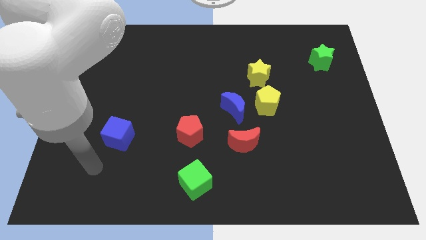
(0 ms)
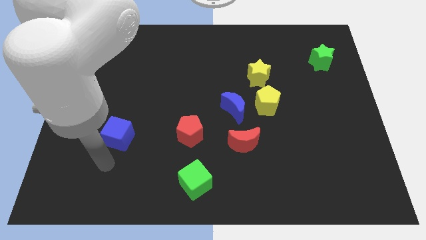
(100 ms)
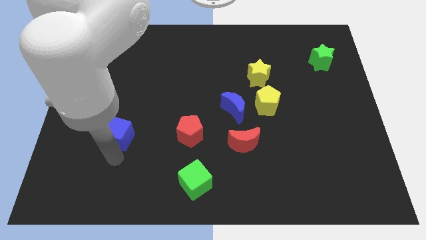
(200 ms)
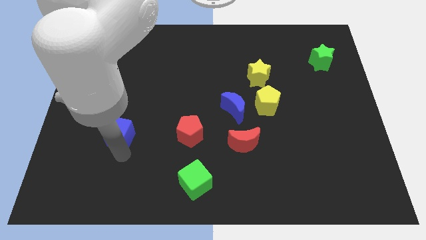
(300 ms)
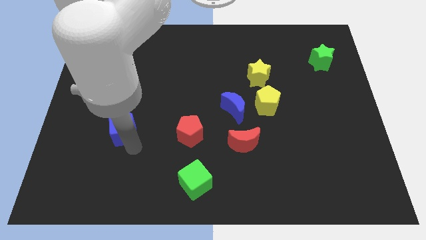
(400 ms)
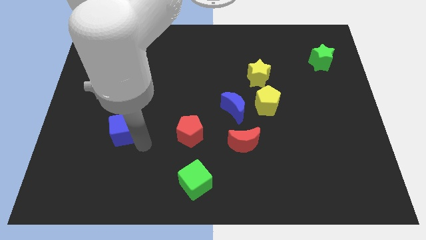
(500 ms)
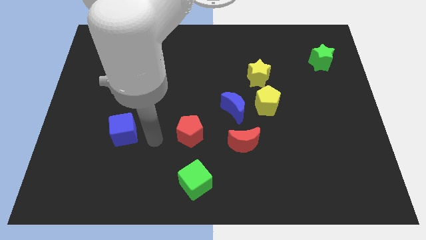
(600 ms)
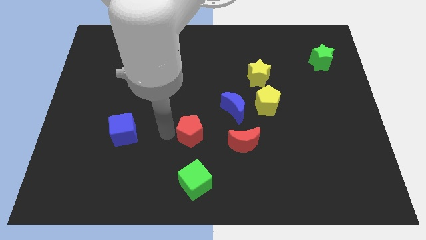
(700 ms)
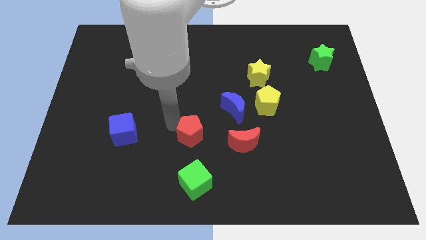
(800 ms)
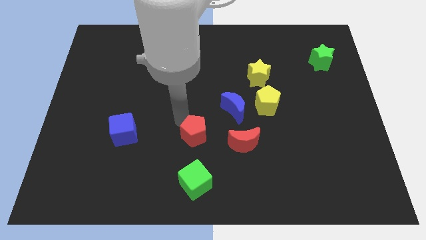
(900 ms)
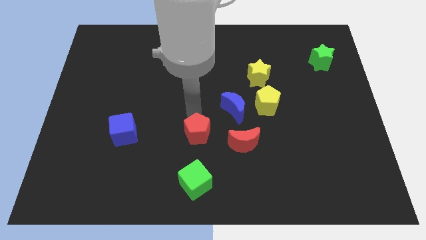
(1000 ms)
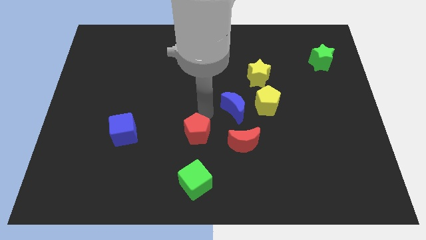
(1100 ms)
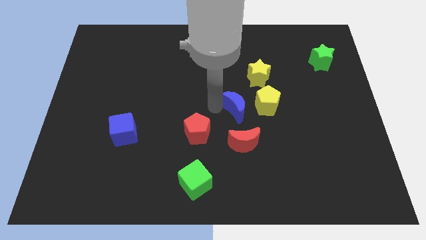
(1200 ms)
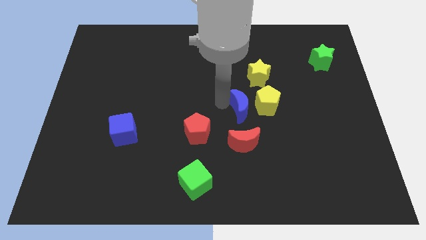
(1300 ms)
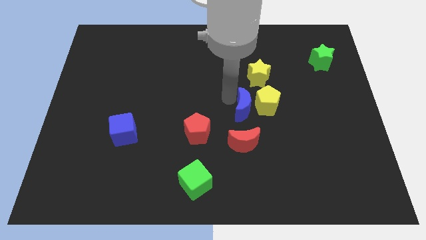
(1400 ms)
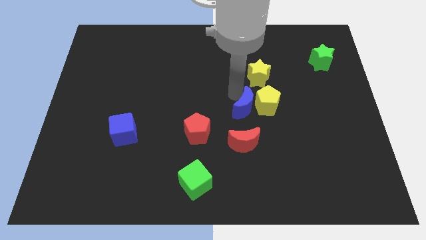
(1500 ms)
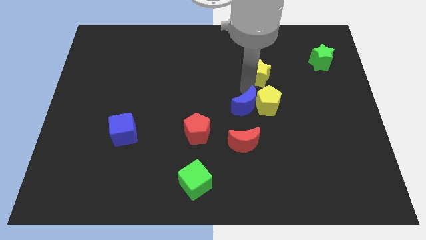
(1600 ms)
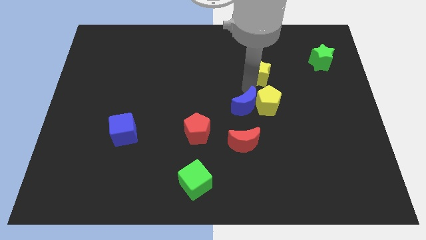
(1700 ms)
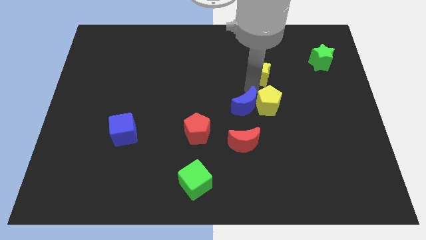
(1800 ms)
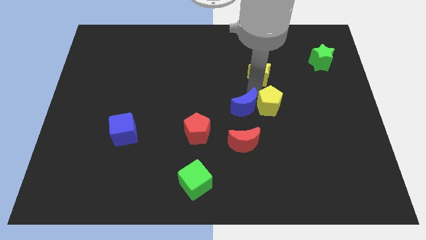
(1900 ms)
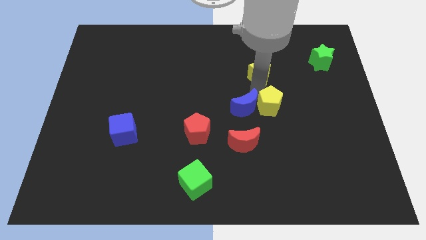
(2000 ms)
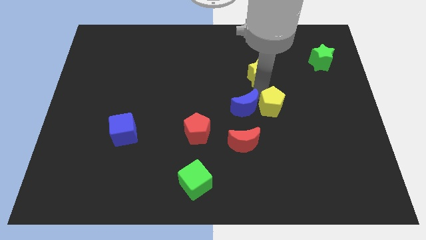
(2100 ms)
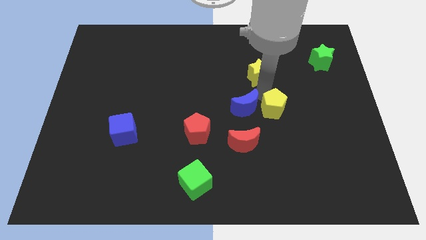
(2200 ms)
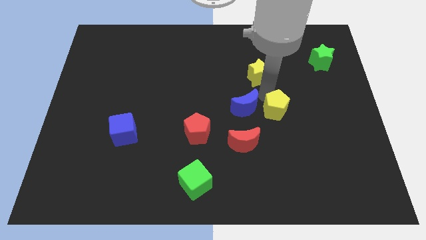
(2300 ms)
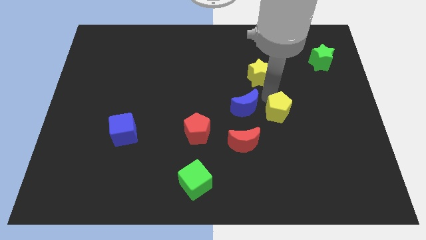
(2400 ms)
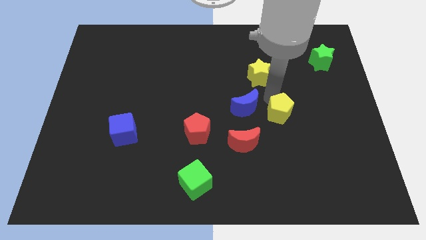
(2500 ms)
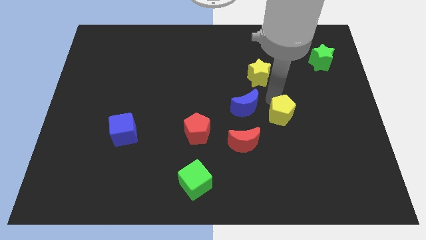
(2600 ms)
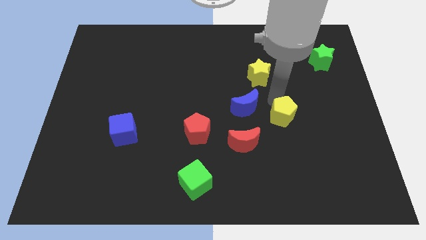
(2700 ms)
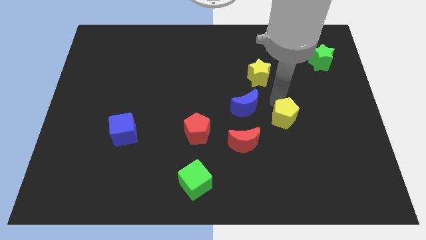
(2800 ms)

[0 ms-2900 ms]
move the yellow pentagon away from the blue moon and yellow star

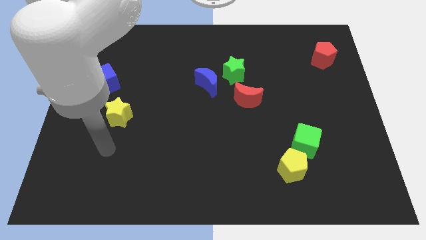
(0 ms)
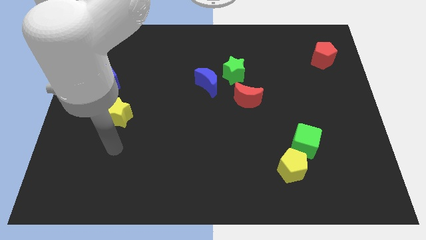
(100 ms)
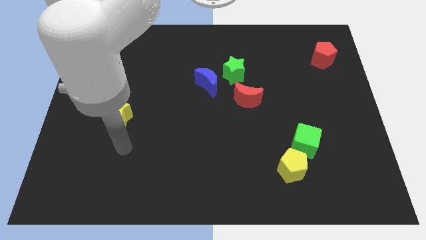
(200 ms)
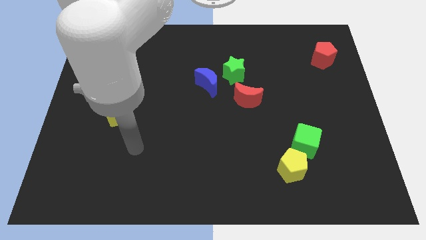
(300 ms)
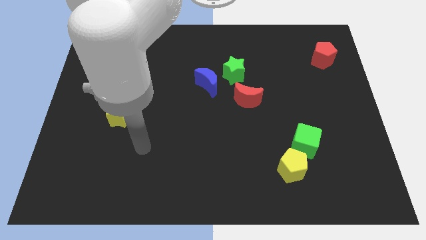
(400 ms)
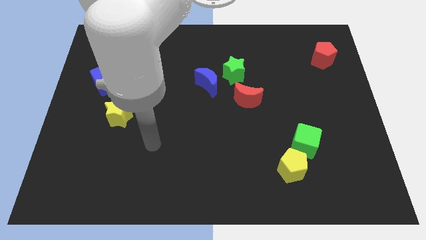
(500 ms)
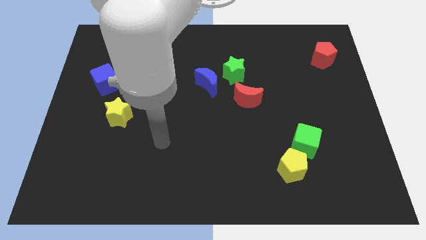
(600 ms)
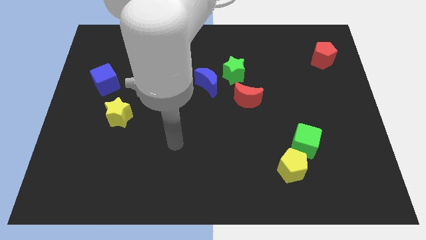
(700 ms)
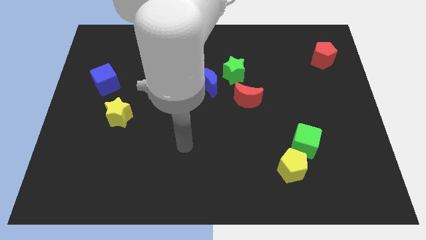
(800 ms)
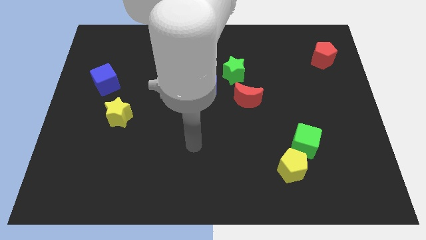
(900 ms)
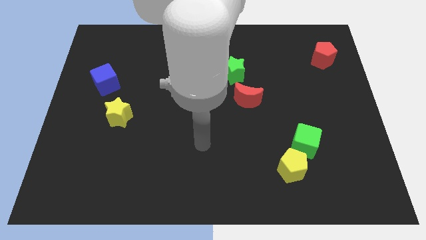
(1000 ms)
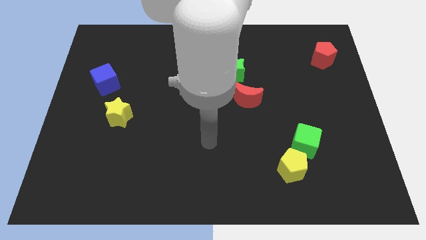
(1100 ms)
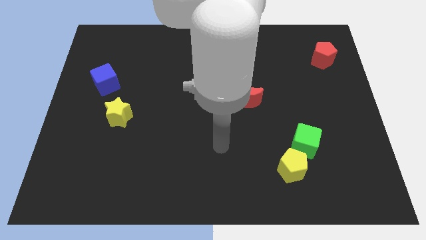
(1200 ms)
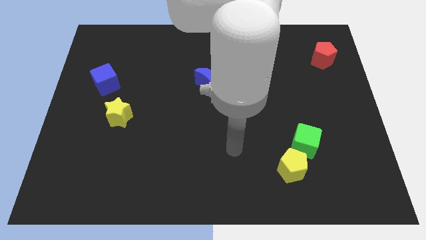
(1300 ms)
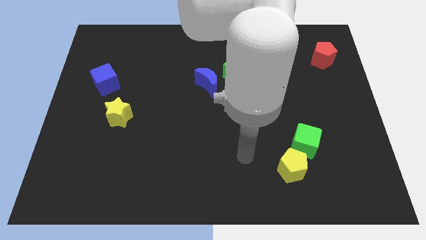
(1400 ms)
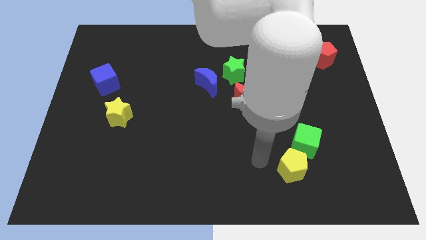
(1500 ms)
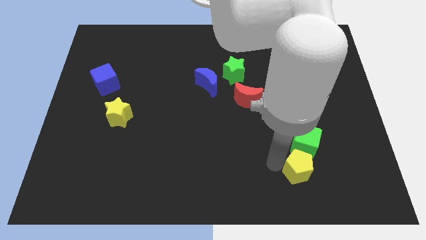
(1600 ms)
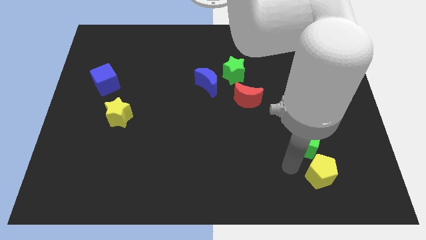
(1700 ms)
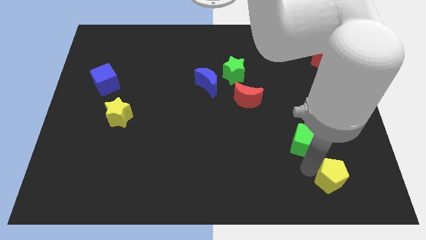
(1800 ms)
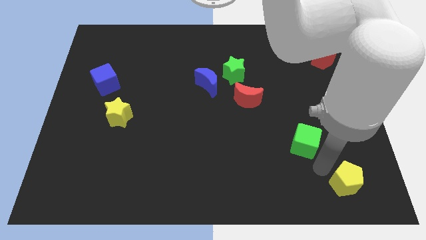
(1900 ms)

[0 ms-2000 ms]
separate the green cube from the yellow pentagon

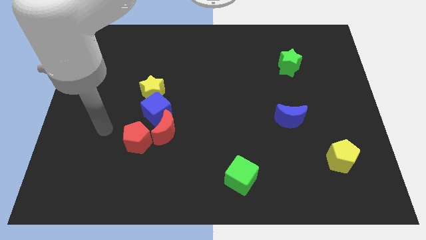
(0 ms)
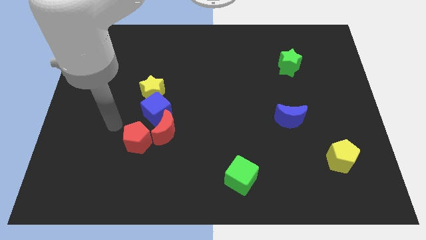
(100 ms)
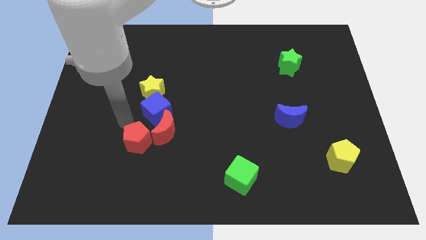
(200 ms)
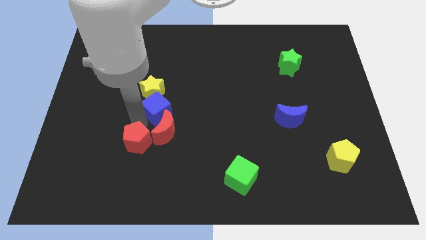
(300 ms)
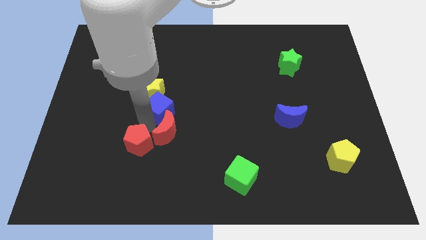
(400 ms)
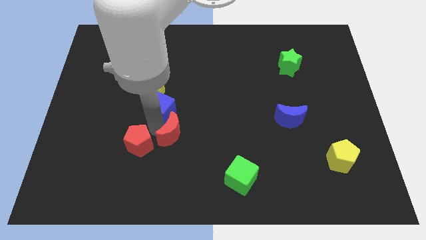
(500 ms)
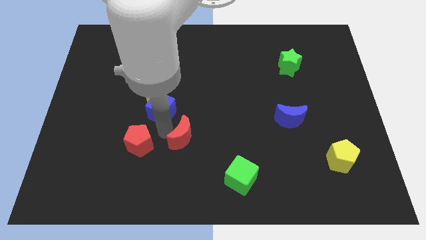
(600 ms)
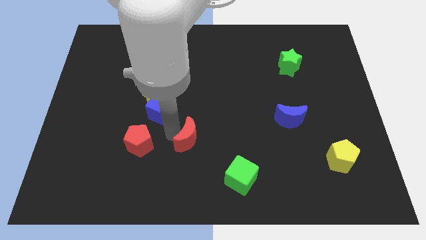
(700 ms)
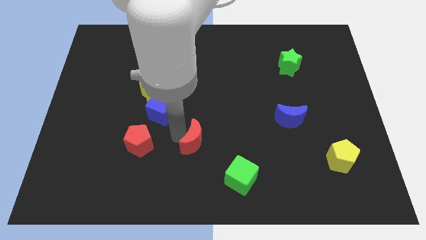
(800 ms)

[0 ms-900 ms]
separate the red moon from the blue cube and red pentagon

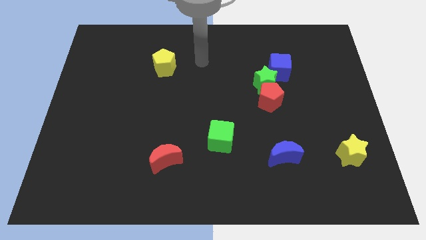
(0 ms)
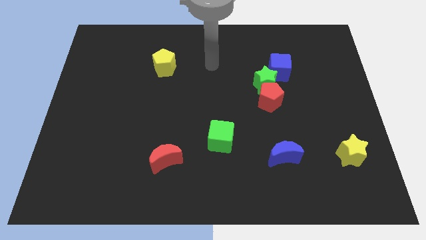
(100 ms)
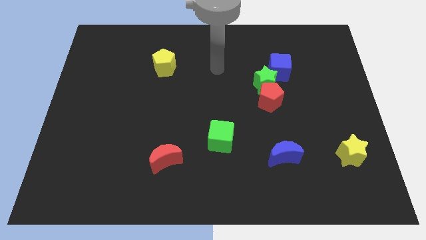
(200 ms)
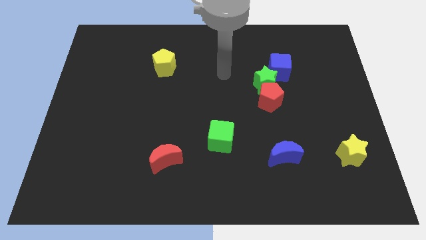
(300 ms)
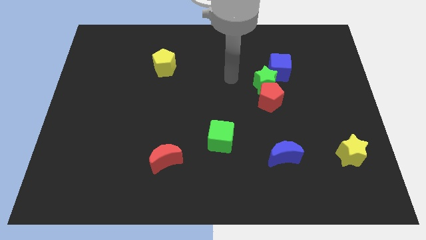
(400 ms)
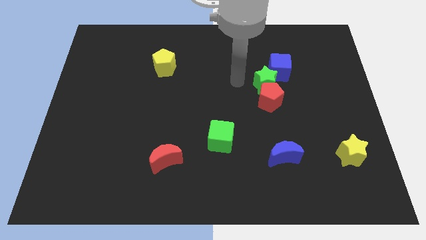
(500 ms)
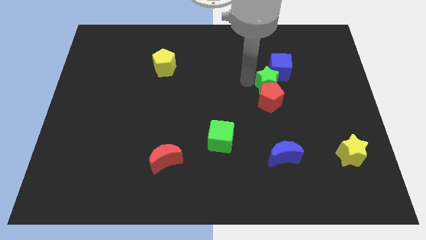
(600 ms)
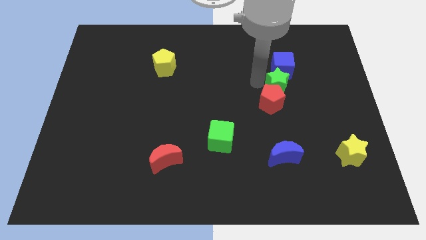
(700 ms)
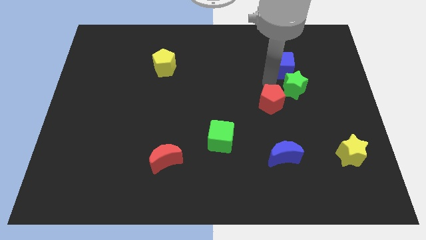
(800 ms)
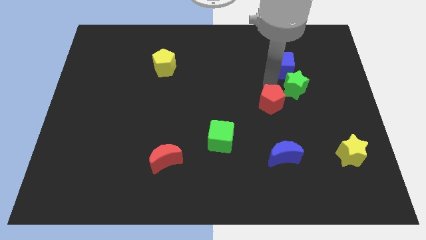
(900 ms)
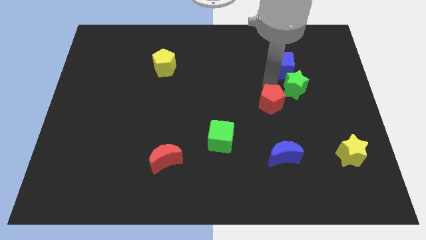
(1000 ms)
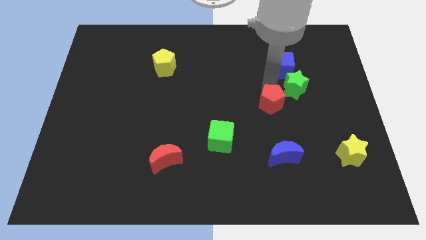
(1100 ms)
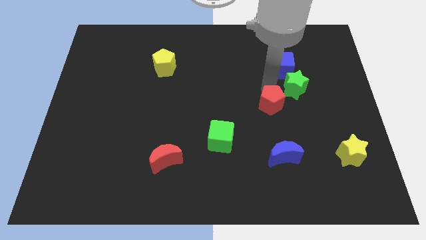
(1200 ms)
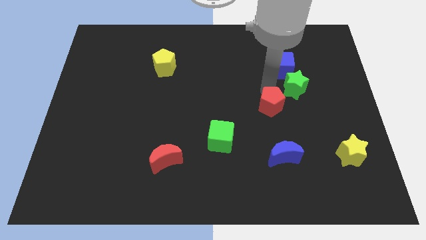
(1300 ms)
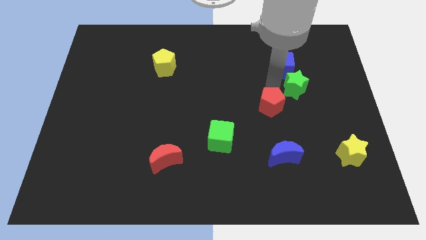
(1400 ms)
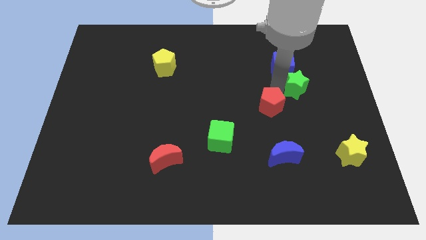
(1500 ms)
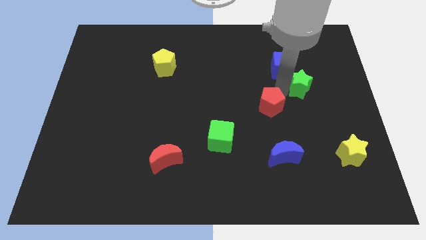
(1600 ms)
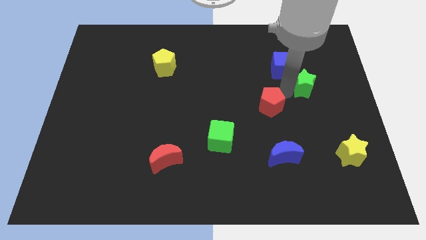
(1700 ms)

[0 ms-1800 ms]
separate the red pentagon from the green star

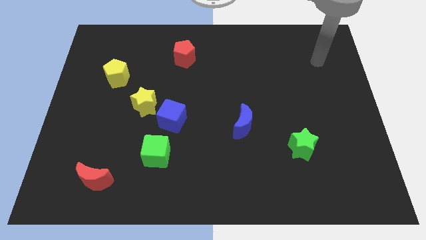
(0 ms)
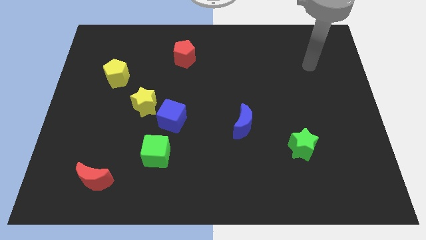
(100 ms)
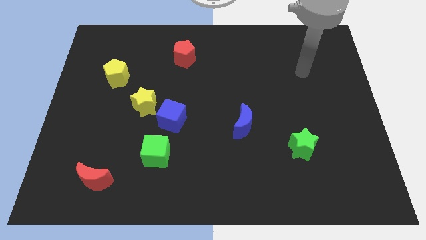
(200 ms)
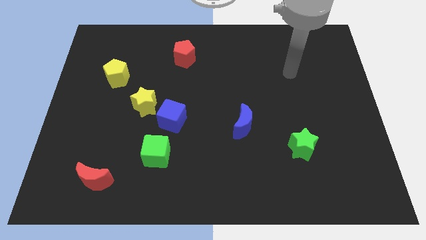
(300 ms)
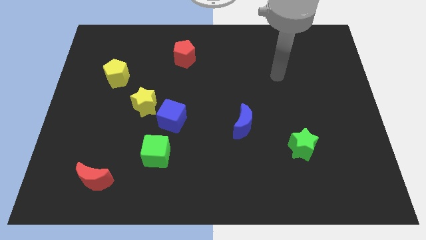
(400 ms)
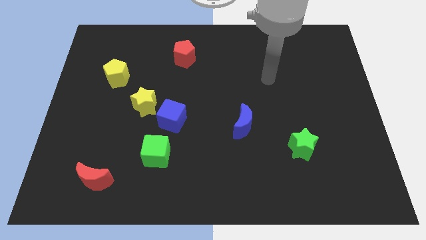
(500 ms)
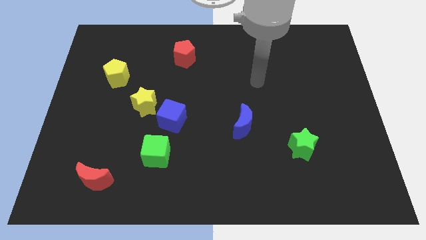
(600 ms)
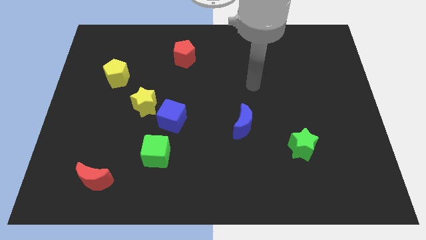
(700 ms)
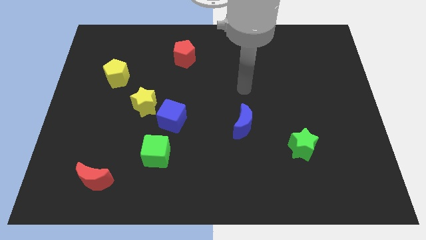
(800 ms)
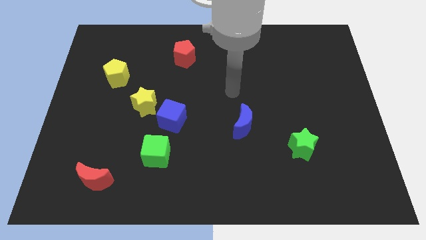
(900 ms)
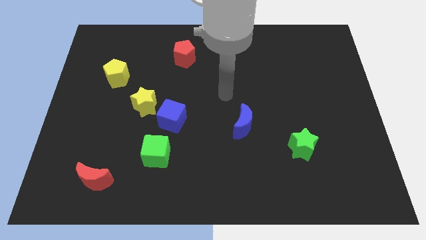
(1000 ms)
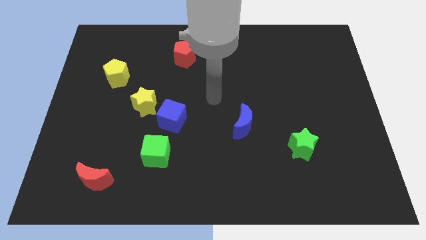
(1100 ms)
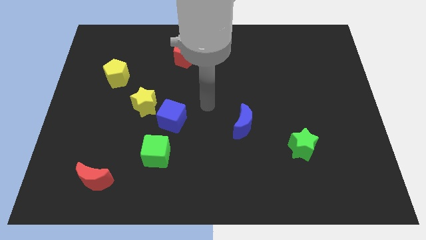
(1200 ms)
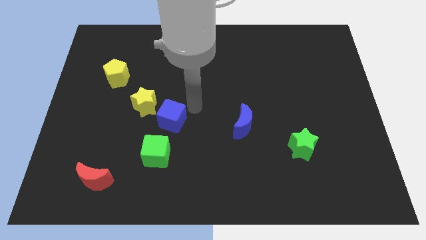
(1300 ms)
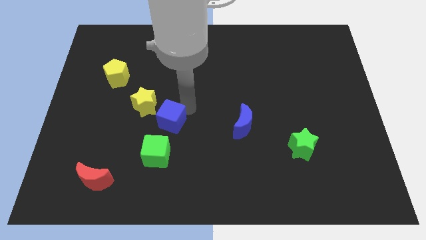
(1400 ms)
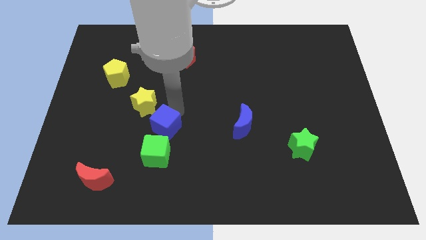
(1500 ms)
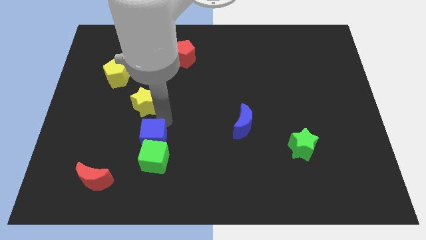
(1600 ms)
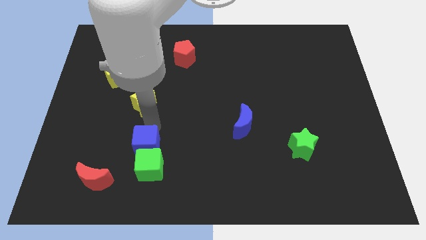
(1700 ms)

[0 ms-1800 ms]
move the yellow star away from the blue cube

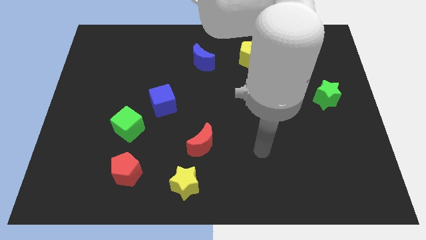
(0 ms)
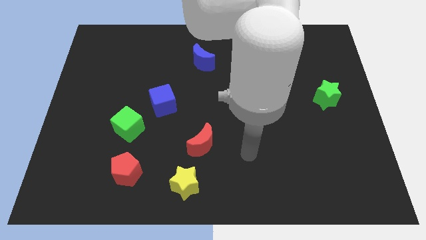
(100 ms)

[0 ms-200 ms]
pull the red moon apart from the yellow star
